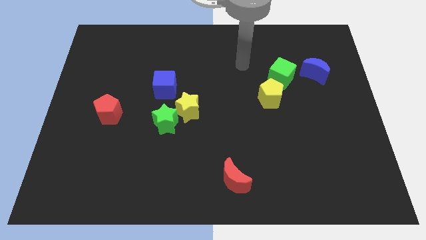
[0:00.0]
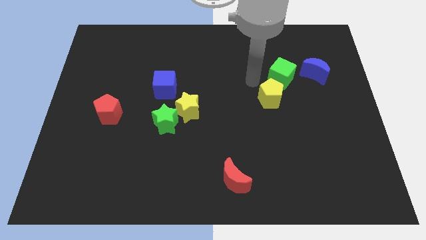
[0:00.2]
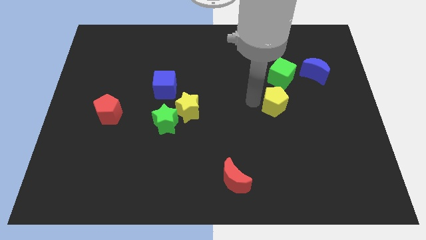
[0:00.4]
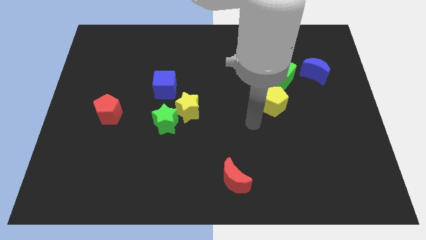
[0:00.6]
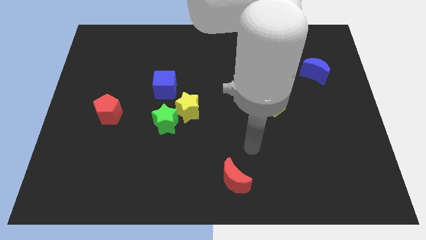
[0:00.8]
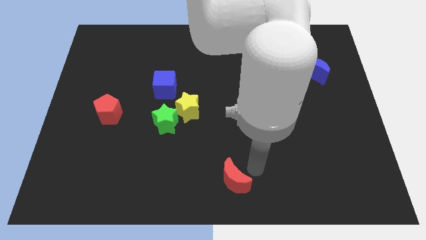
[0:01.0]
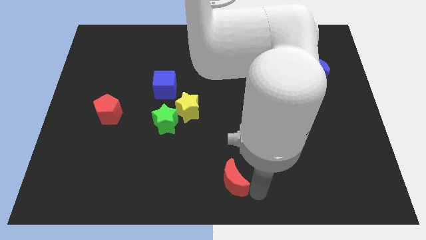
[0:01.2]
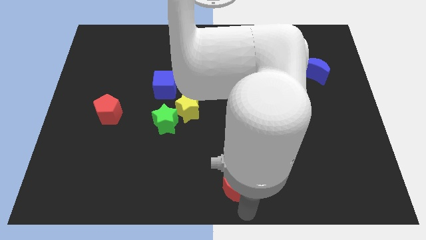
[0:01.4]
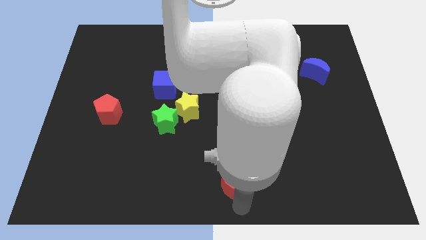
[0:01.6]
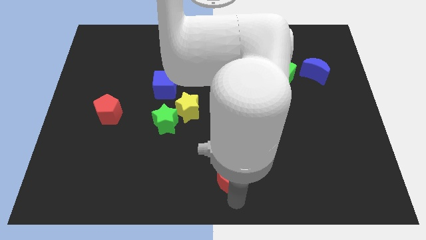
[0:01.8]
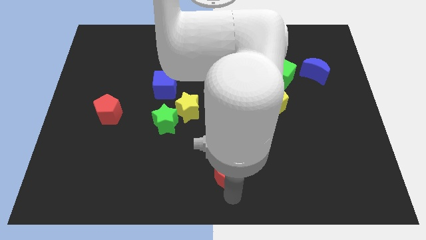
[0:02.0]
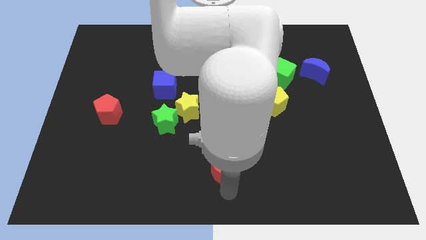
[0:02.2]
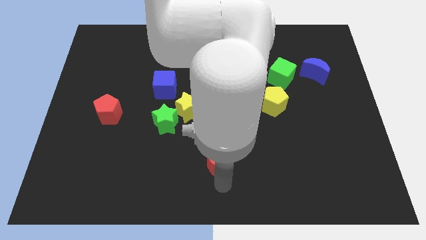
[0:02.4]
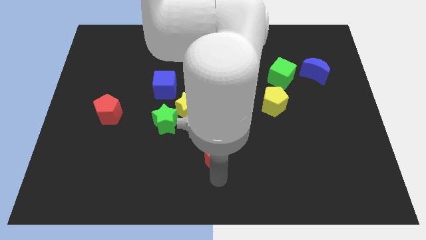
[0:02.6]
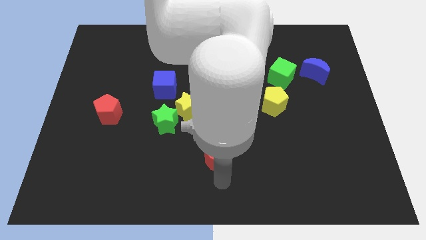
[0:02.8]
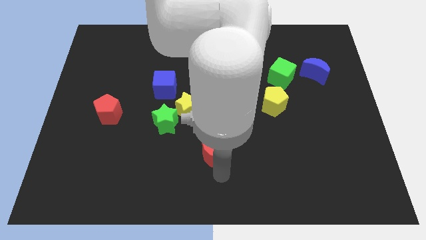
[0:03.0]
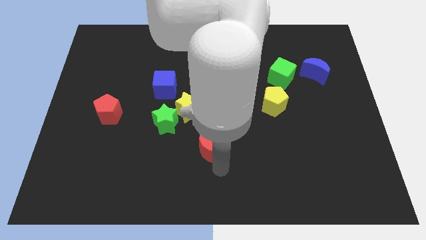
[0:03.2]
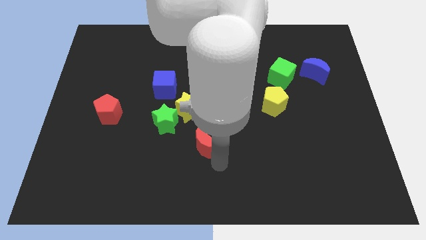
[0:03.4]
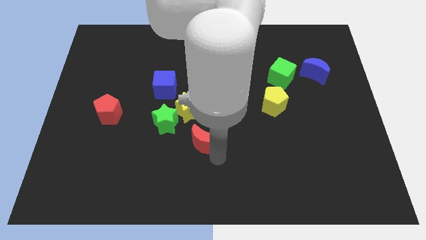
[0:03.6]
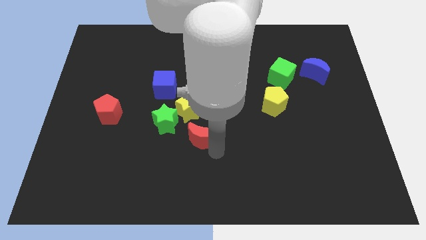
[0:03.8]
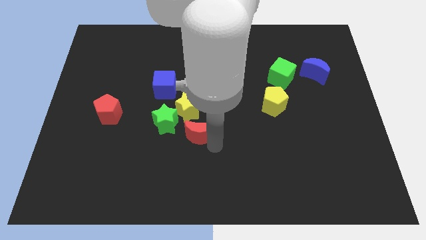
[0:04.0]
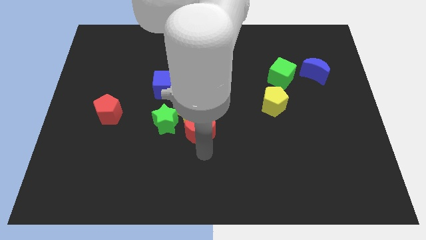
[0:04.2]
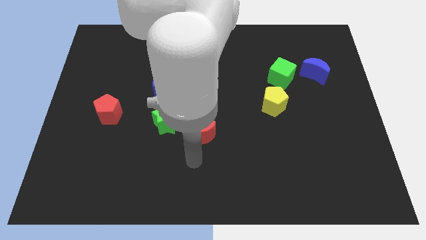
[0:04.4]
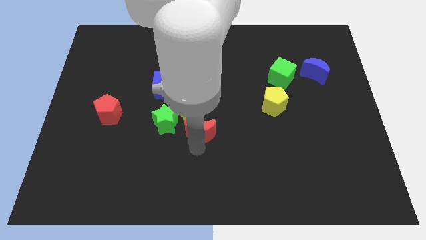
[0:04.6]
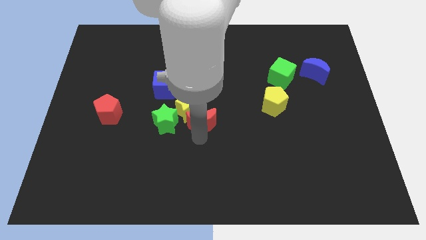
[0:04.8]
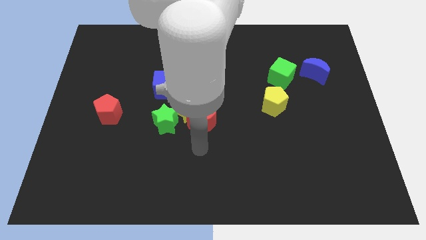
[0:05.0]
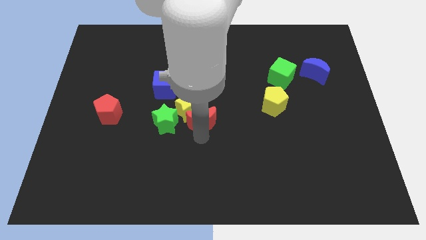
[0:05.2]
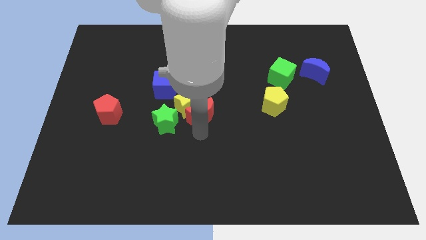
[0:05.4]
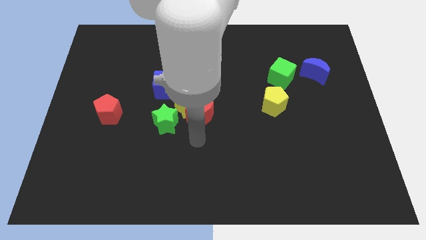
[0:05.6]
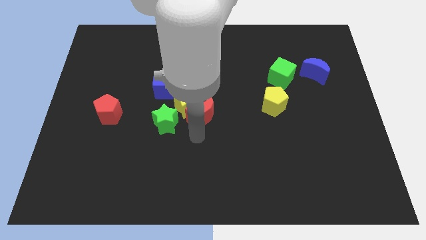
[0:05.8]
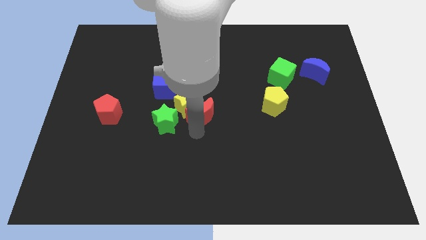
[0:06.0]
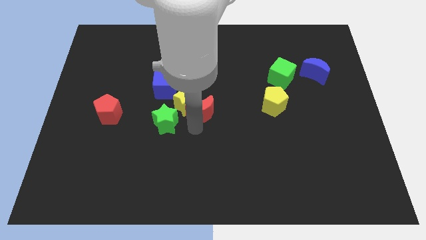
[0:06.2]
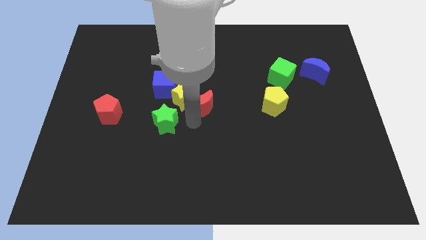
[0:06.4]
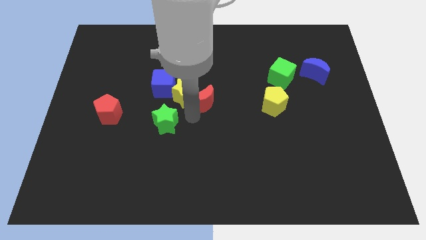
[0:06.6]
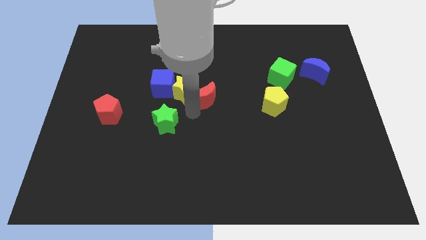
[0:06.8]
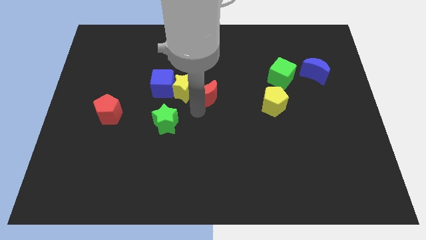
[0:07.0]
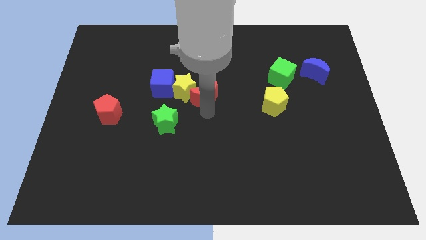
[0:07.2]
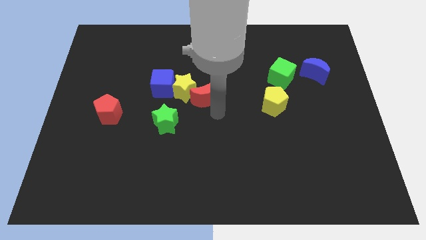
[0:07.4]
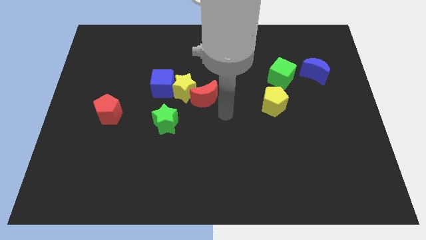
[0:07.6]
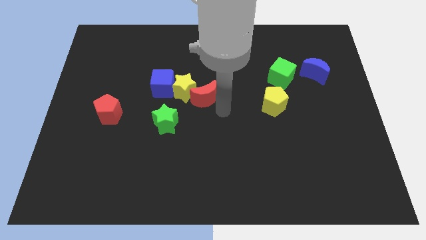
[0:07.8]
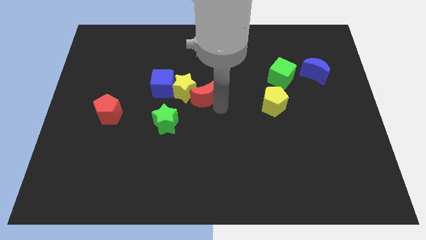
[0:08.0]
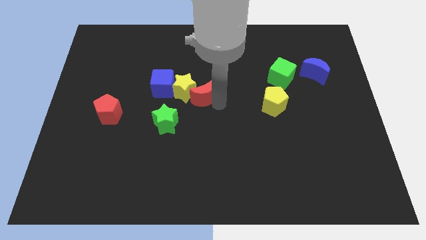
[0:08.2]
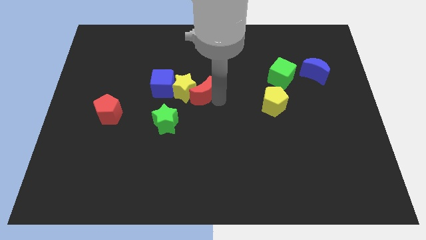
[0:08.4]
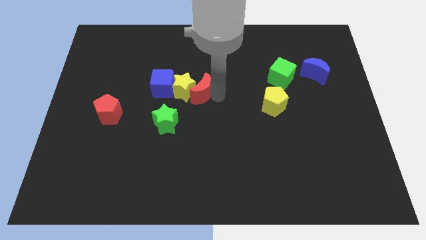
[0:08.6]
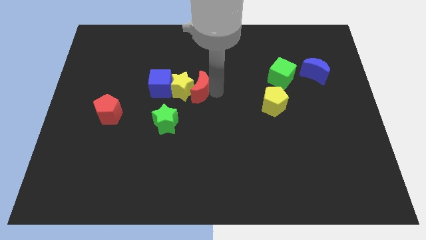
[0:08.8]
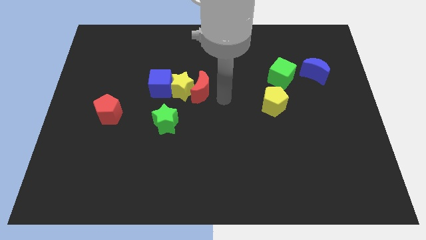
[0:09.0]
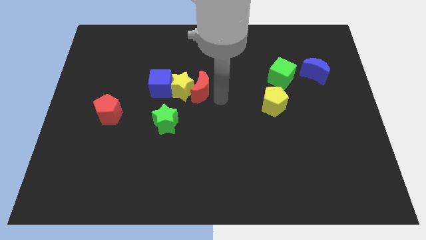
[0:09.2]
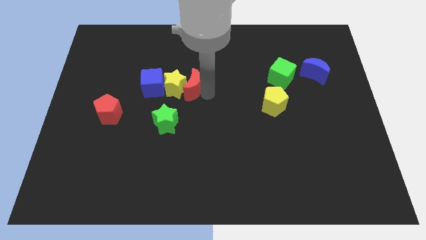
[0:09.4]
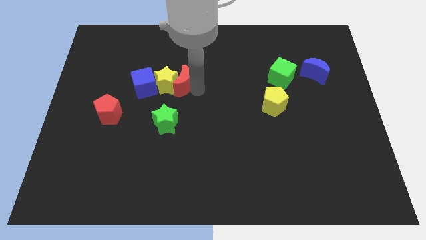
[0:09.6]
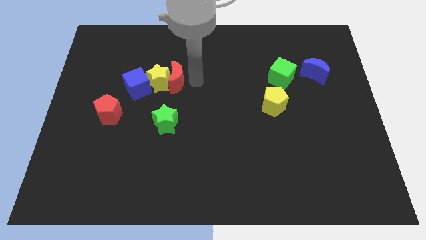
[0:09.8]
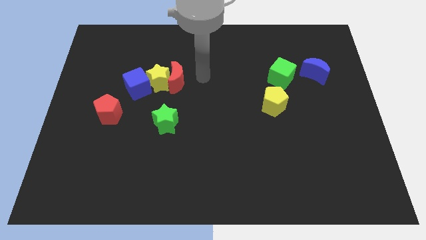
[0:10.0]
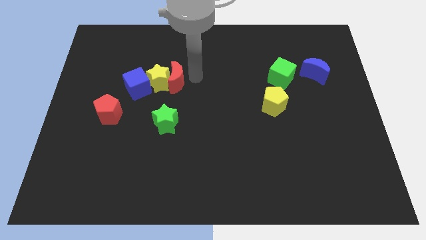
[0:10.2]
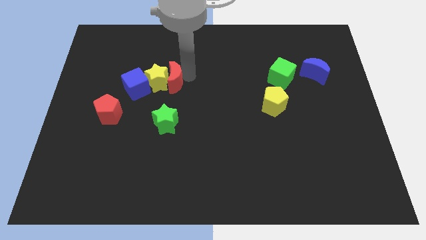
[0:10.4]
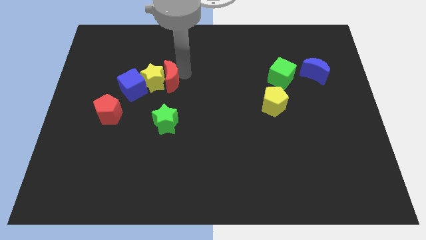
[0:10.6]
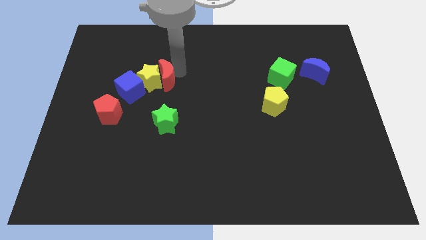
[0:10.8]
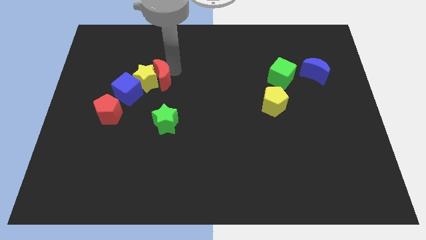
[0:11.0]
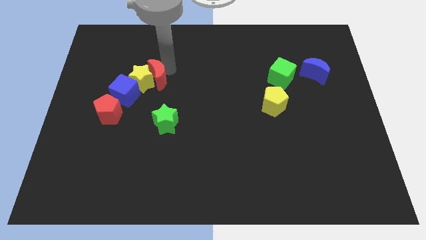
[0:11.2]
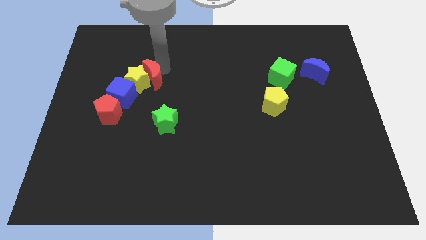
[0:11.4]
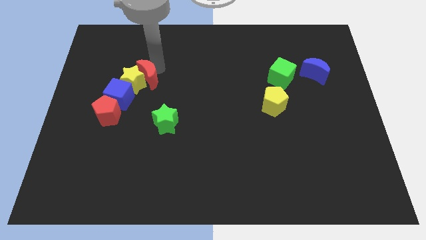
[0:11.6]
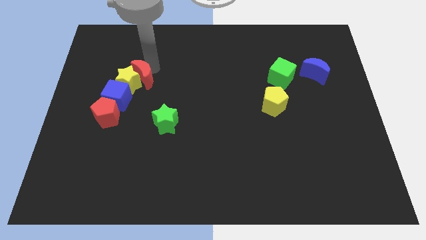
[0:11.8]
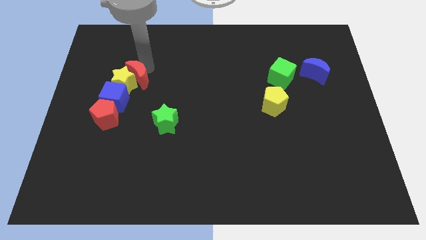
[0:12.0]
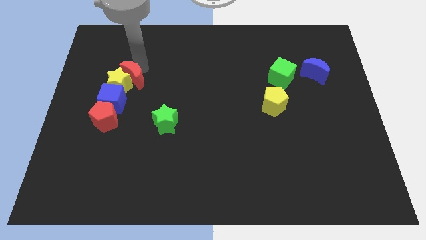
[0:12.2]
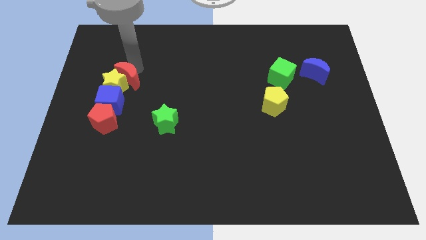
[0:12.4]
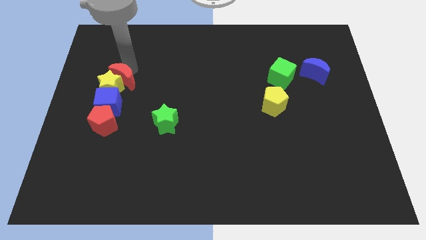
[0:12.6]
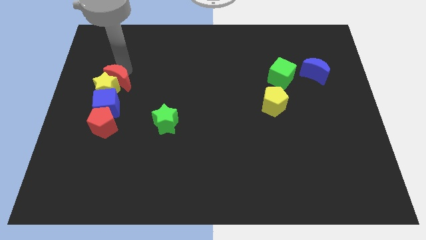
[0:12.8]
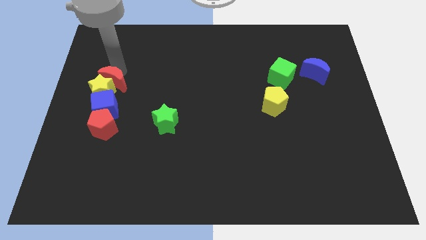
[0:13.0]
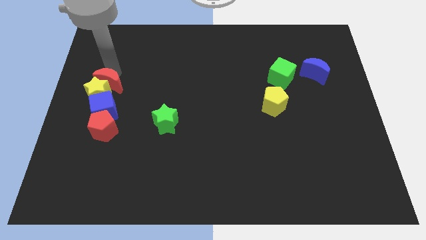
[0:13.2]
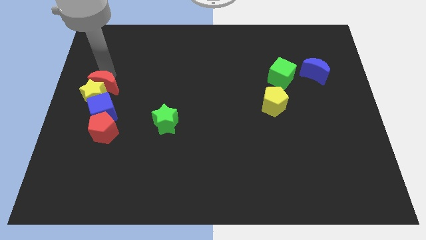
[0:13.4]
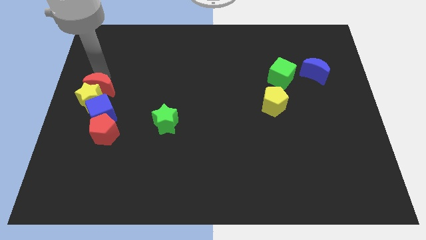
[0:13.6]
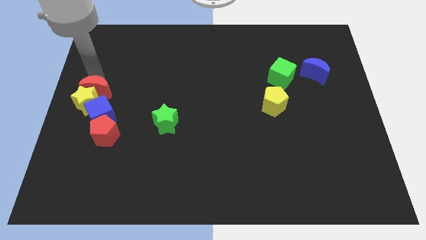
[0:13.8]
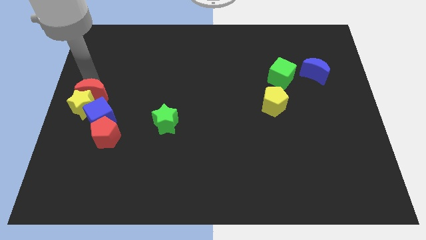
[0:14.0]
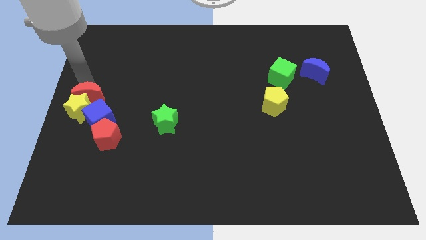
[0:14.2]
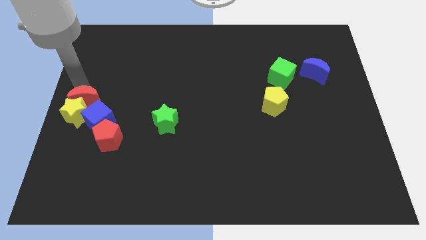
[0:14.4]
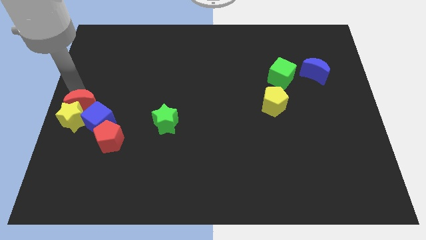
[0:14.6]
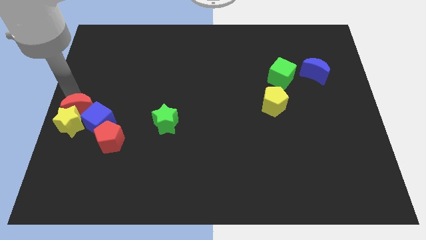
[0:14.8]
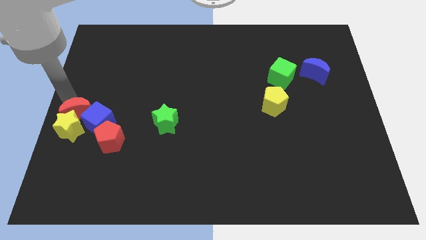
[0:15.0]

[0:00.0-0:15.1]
slide the red moon next to the blue cube
